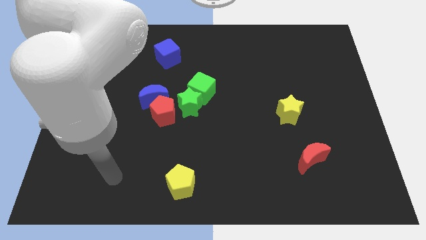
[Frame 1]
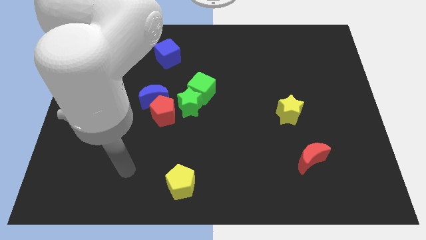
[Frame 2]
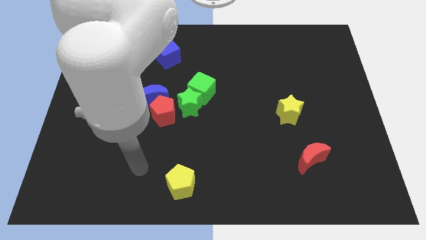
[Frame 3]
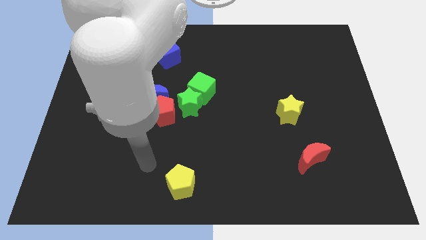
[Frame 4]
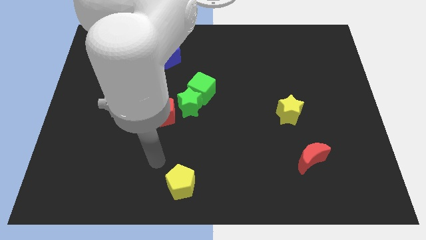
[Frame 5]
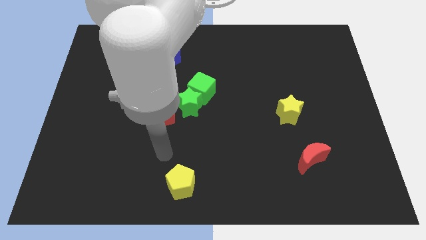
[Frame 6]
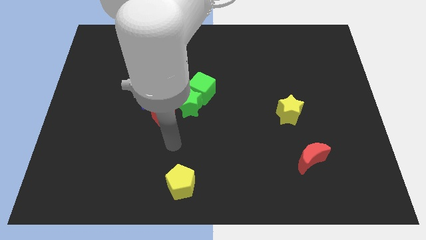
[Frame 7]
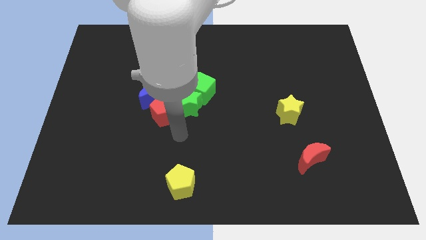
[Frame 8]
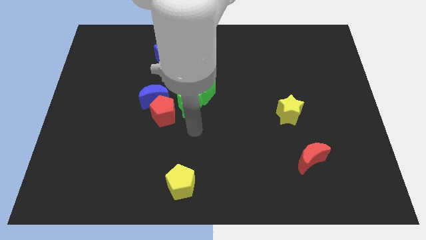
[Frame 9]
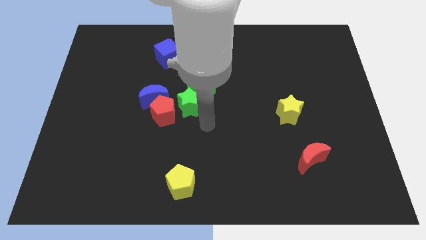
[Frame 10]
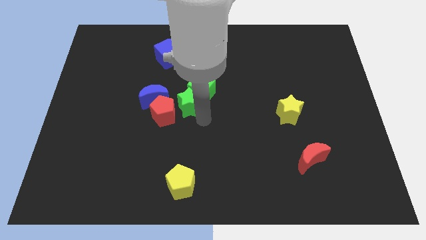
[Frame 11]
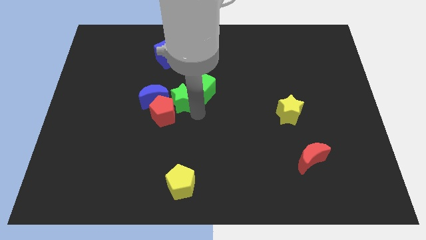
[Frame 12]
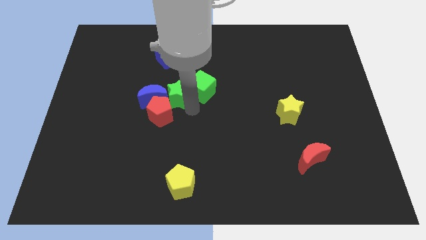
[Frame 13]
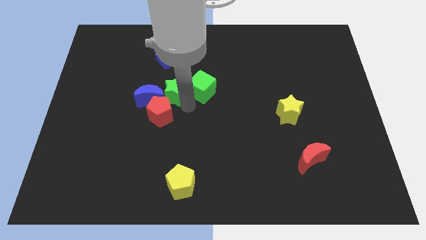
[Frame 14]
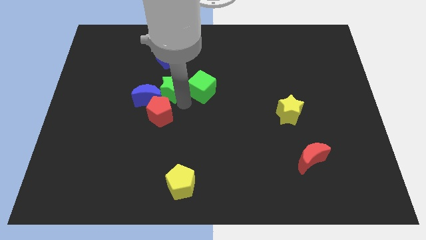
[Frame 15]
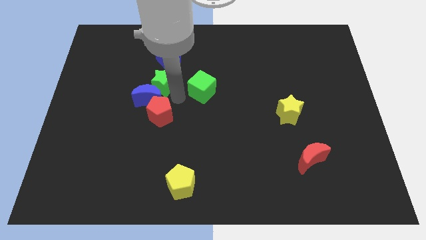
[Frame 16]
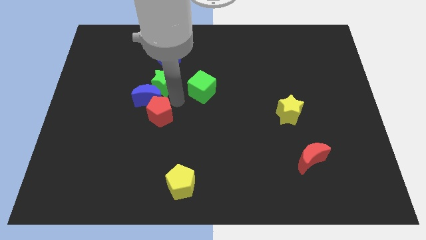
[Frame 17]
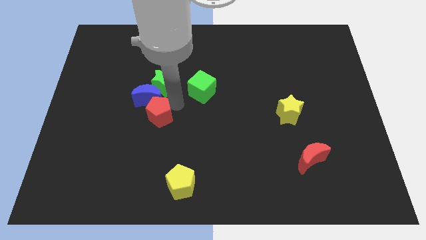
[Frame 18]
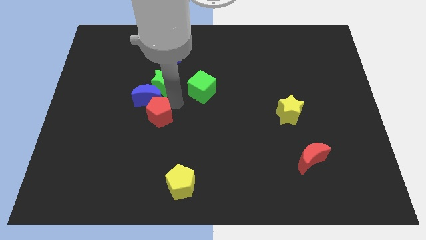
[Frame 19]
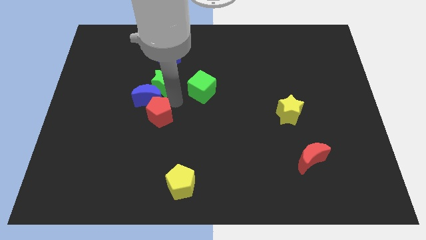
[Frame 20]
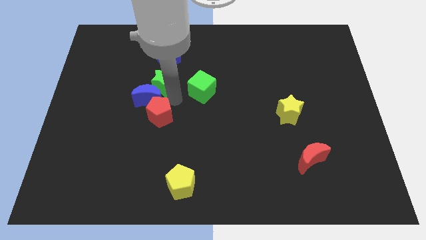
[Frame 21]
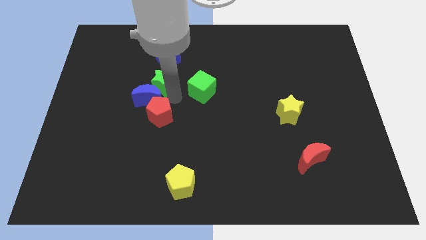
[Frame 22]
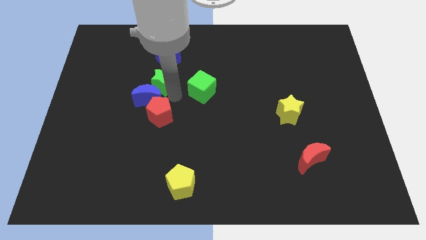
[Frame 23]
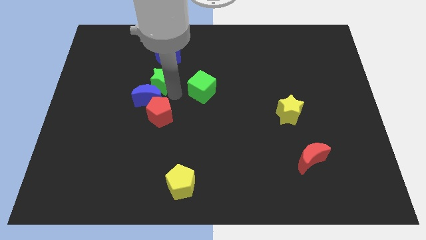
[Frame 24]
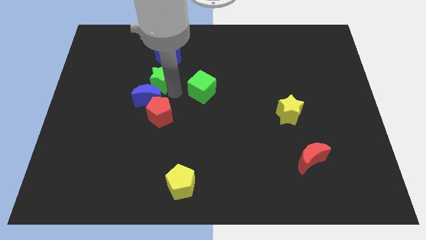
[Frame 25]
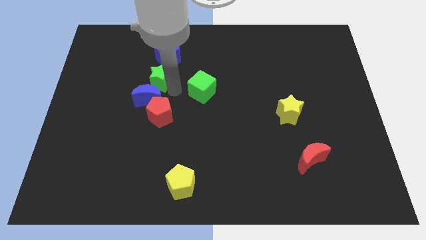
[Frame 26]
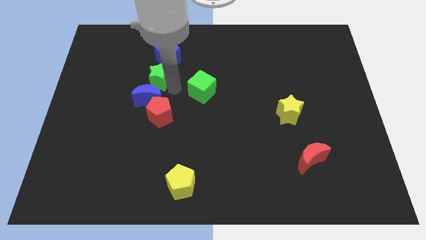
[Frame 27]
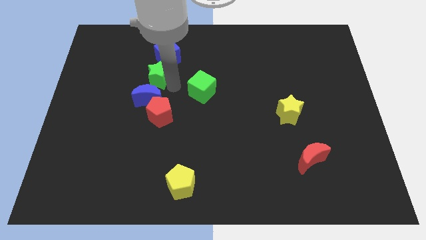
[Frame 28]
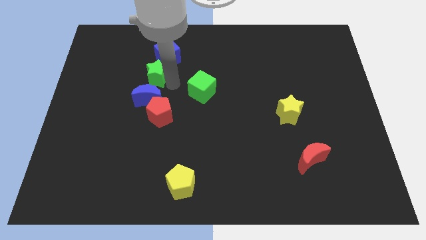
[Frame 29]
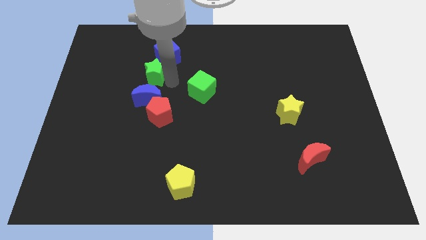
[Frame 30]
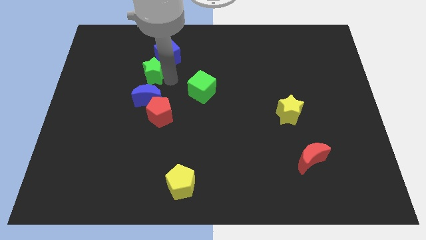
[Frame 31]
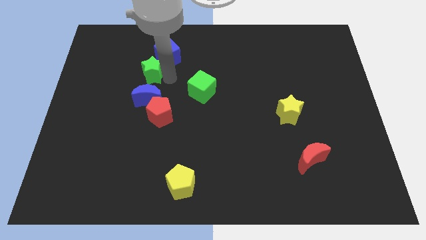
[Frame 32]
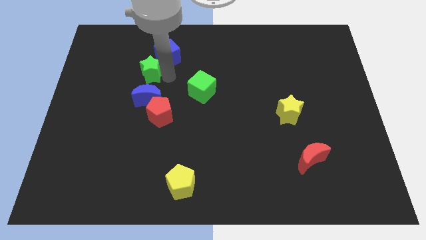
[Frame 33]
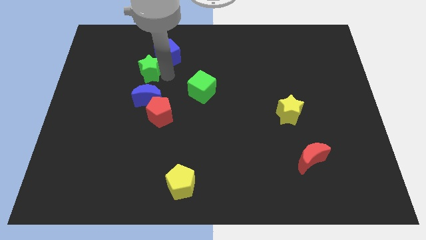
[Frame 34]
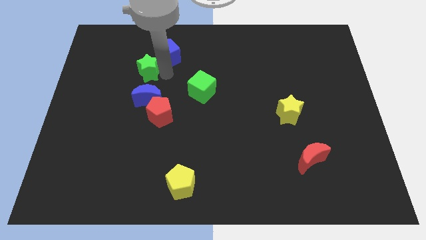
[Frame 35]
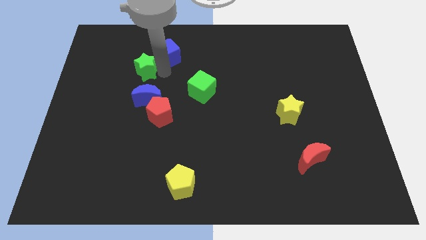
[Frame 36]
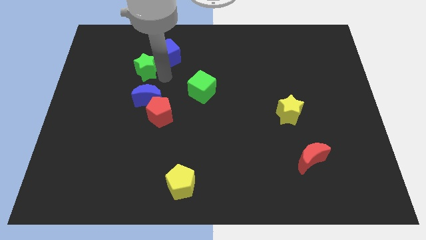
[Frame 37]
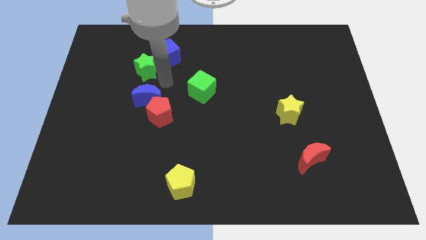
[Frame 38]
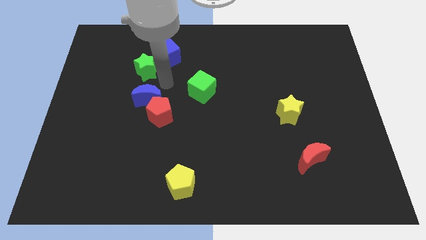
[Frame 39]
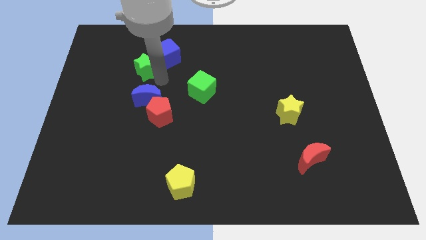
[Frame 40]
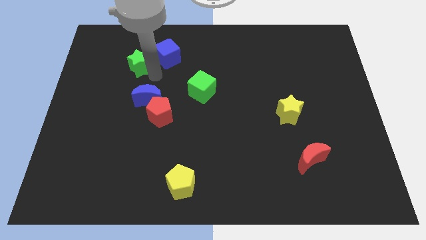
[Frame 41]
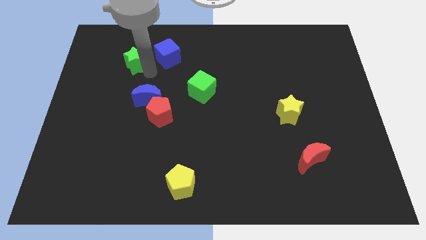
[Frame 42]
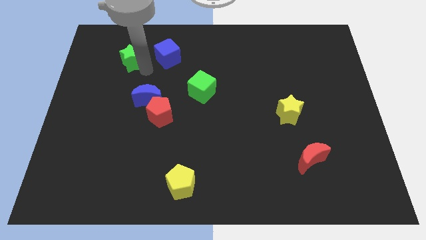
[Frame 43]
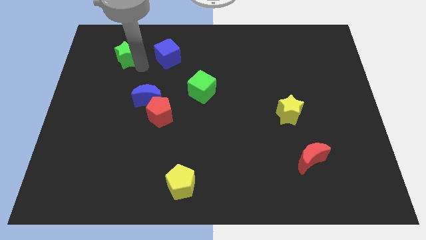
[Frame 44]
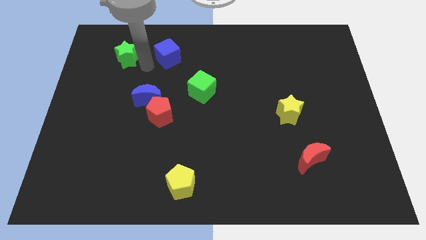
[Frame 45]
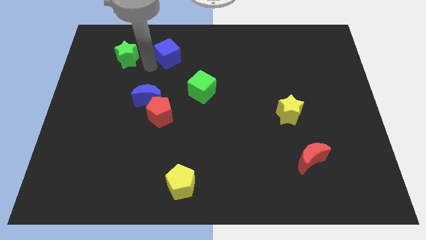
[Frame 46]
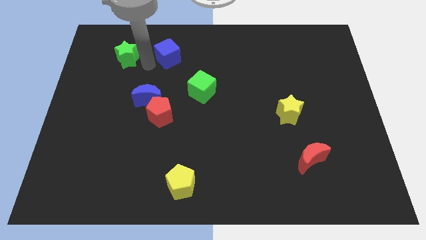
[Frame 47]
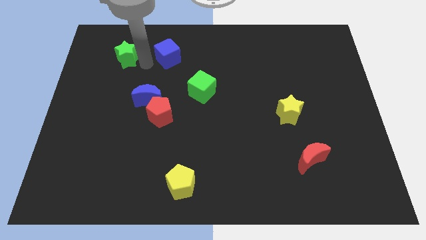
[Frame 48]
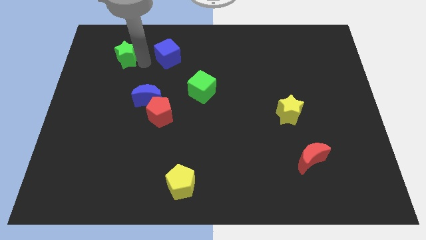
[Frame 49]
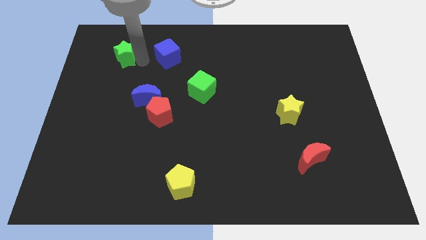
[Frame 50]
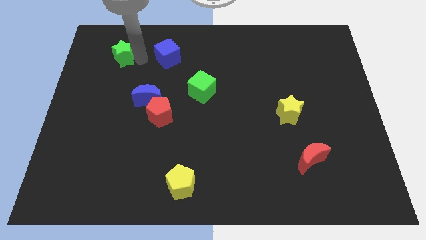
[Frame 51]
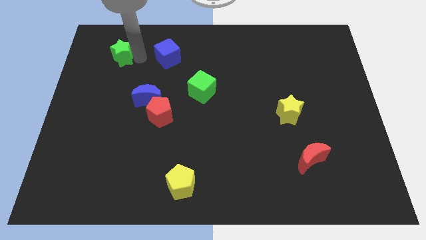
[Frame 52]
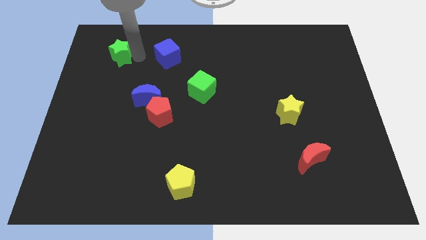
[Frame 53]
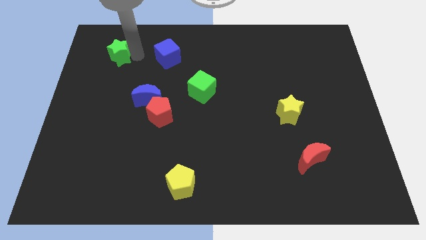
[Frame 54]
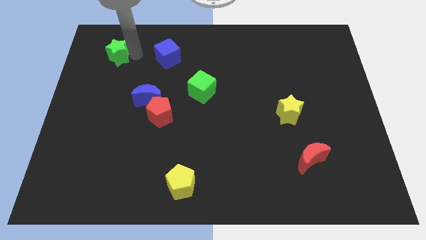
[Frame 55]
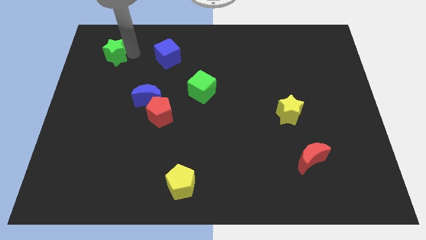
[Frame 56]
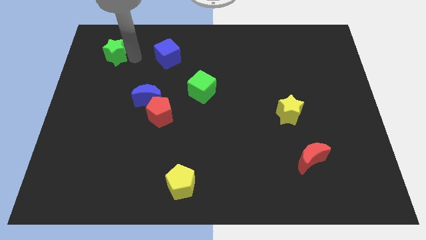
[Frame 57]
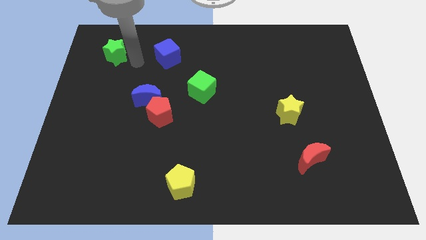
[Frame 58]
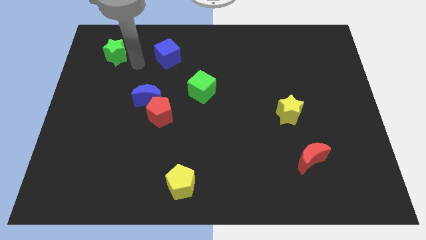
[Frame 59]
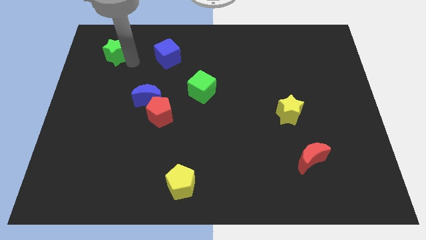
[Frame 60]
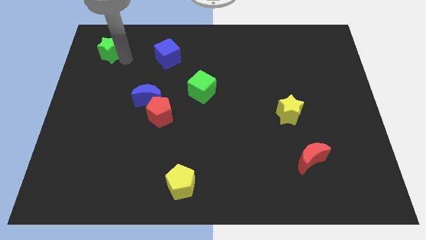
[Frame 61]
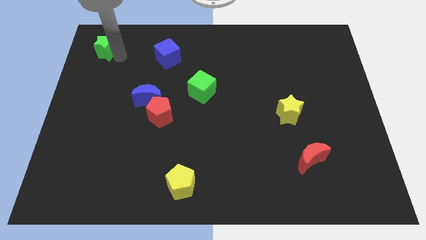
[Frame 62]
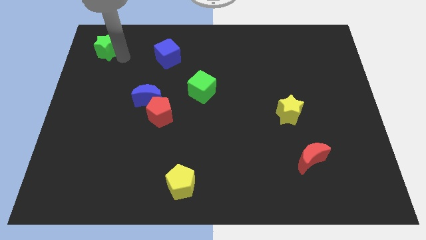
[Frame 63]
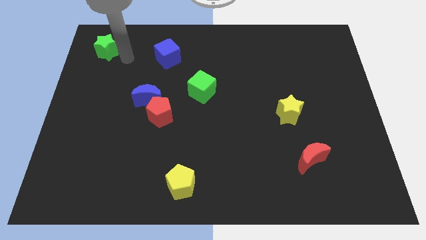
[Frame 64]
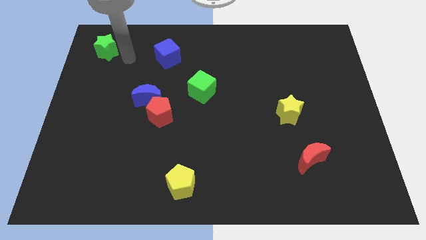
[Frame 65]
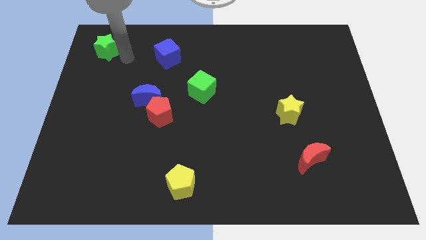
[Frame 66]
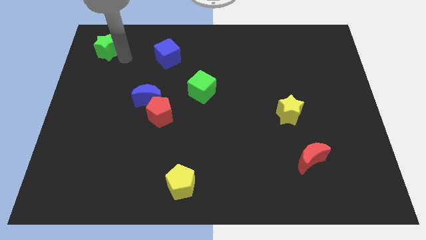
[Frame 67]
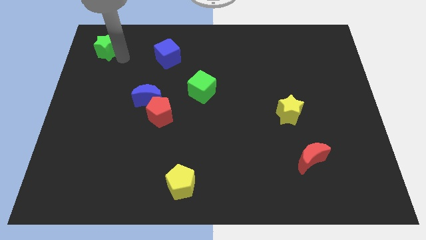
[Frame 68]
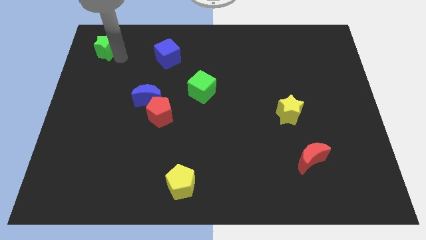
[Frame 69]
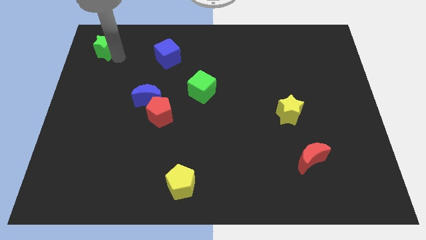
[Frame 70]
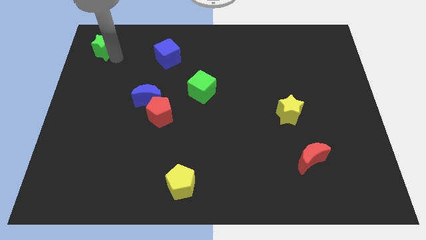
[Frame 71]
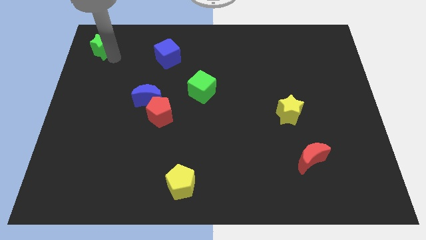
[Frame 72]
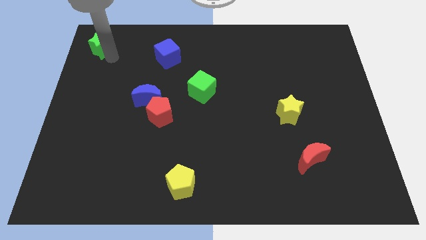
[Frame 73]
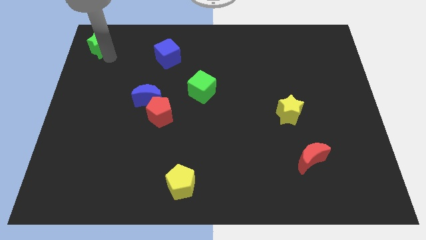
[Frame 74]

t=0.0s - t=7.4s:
move the green star to the top left
